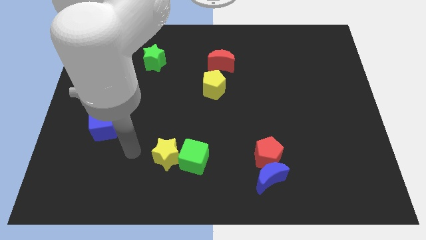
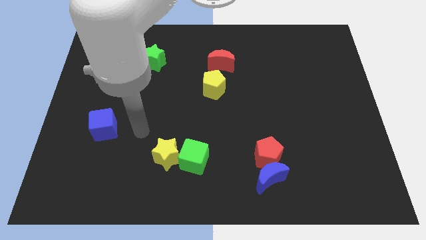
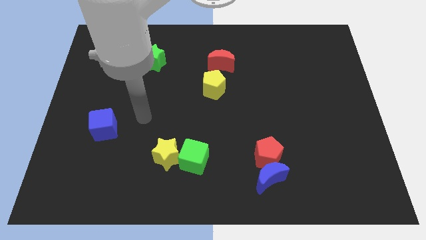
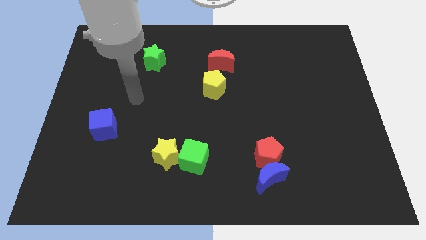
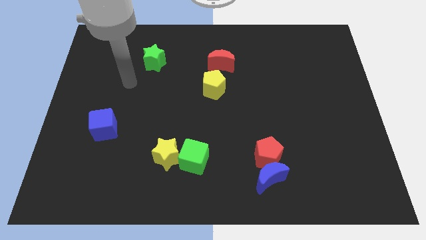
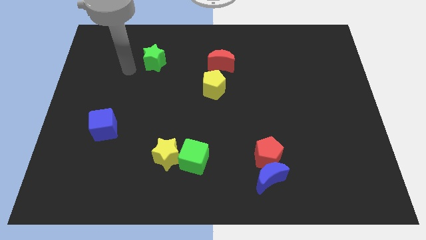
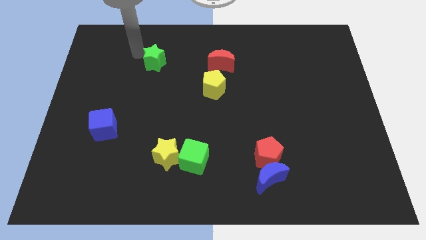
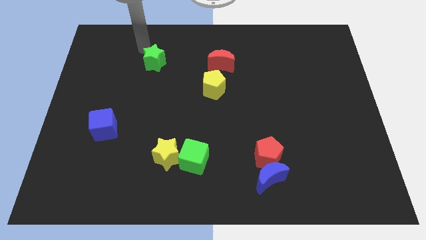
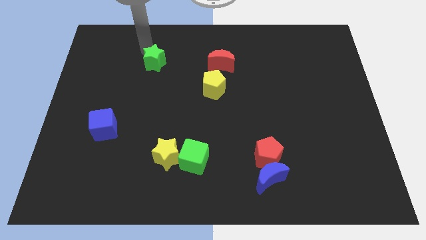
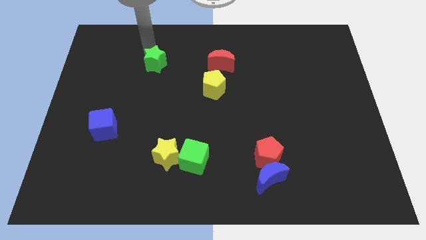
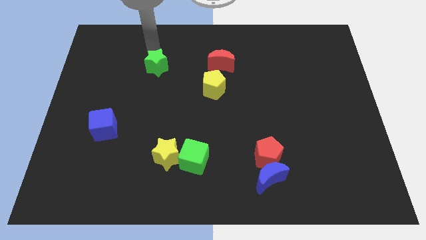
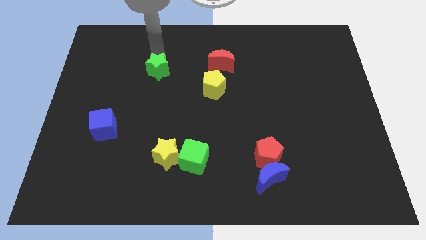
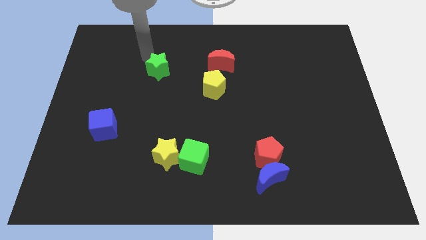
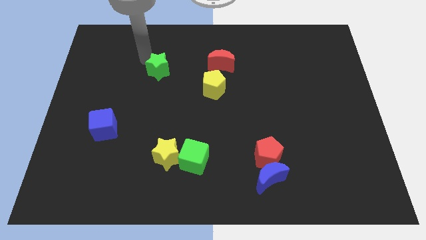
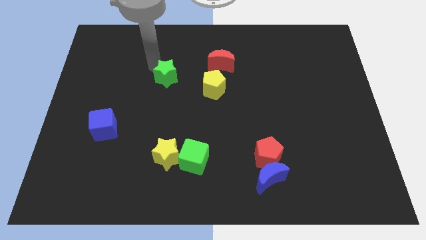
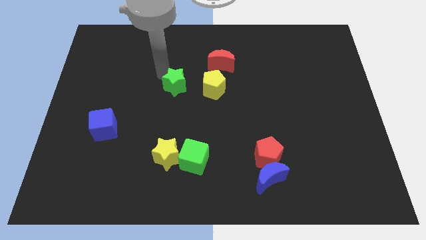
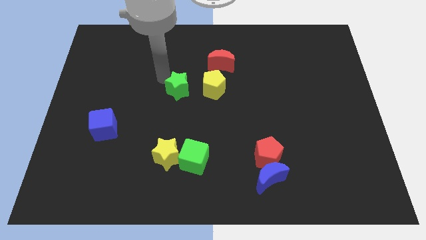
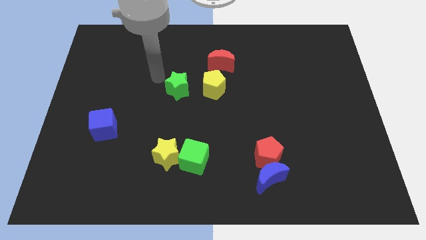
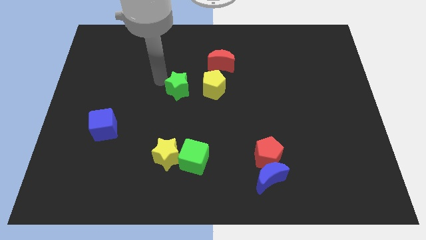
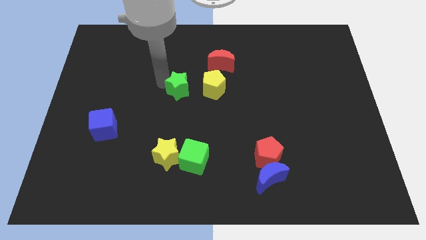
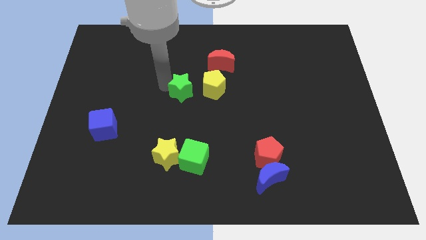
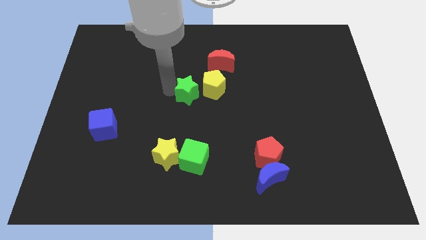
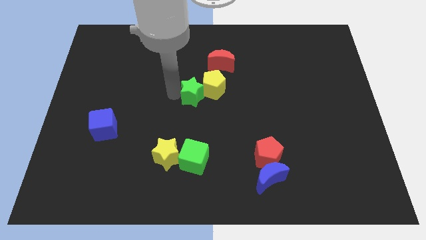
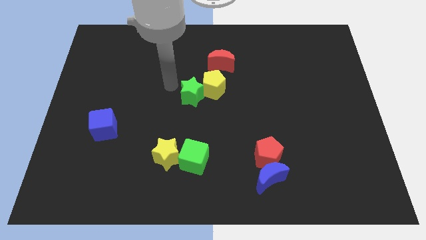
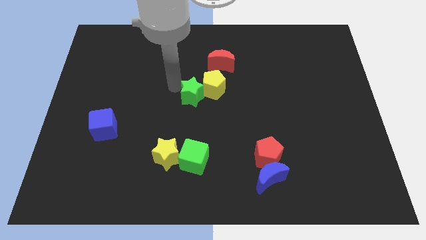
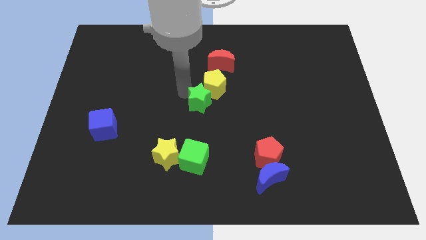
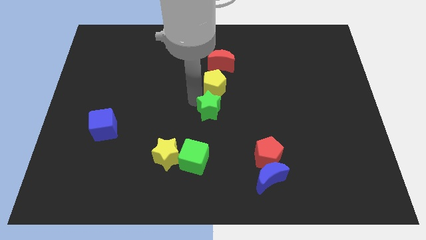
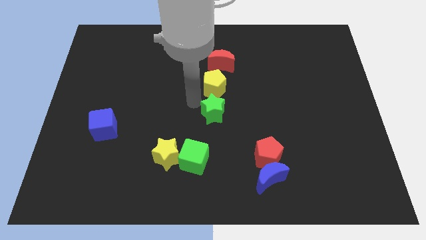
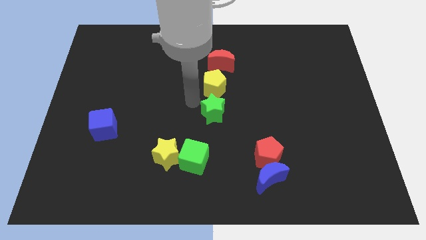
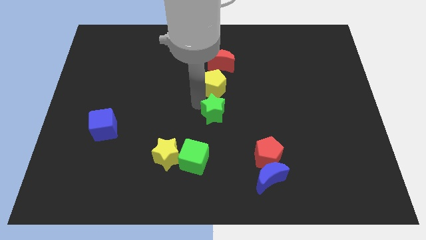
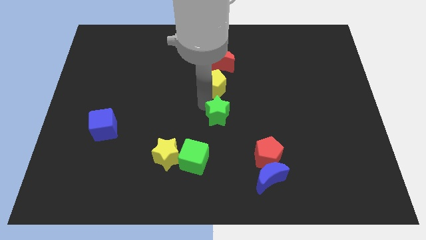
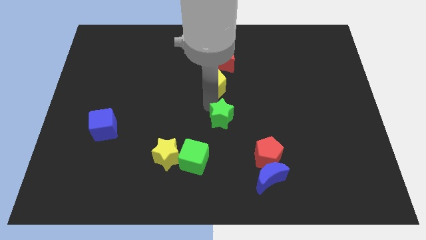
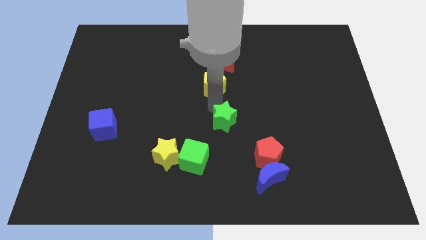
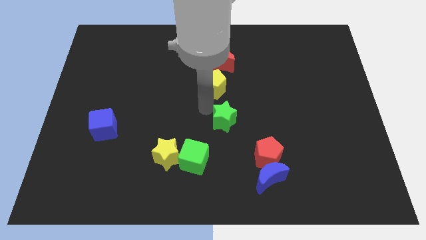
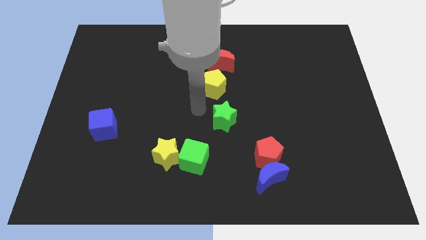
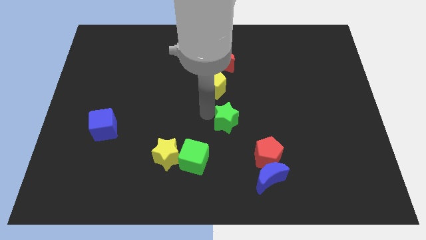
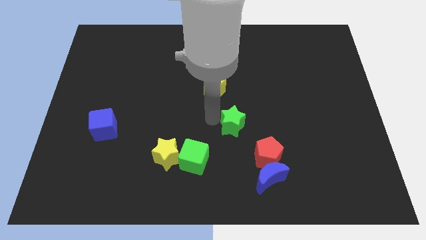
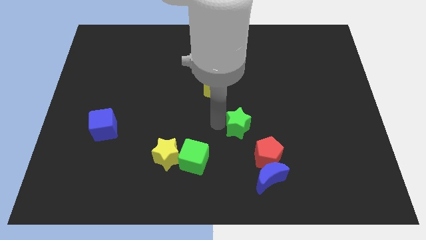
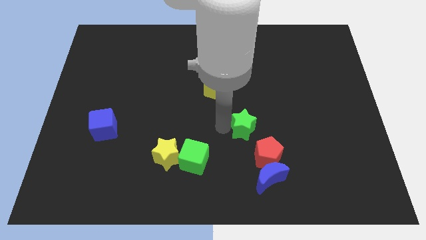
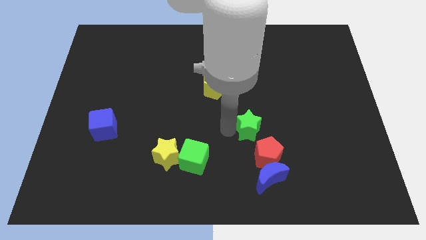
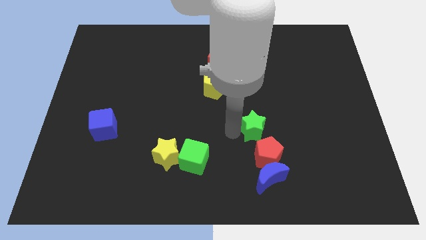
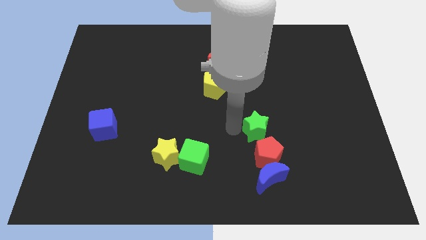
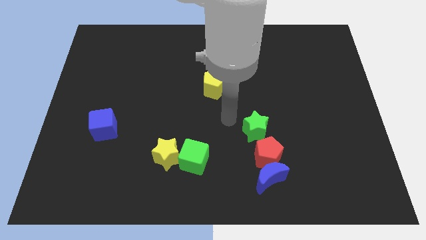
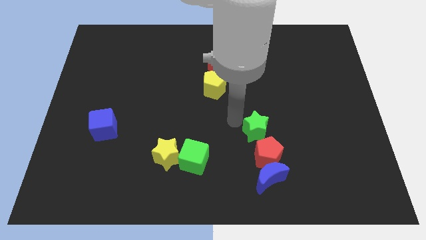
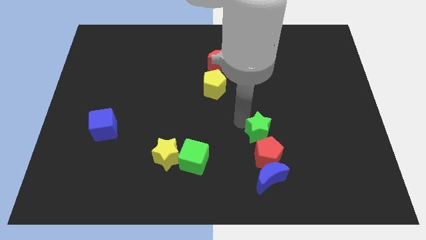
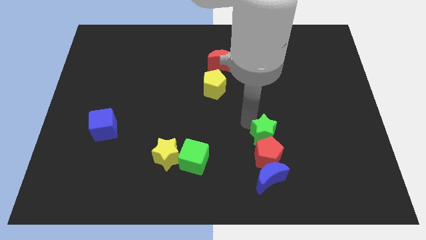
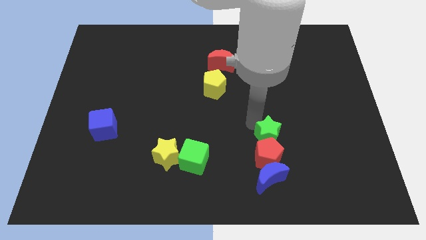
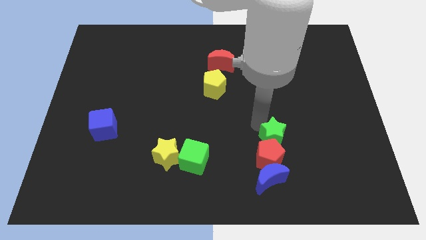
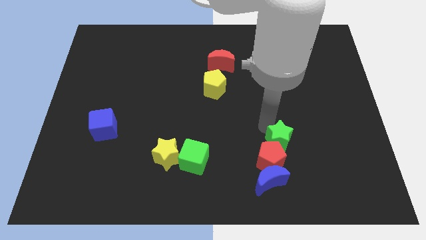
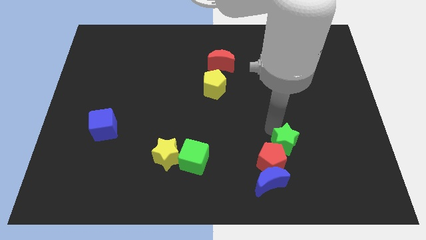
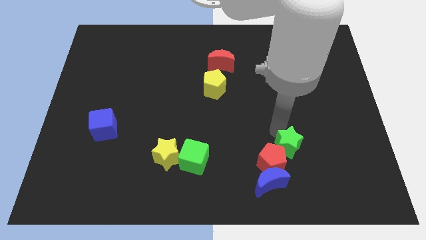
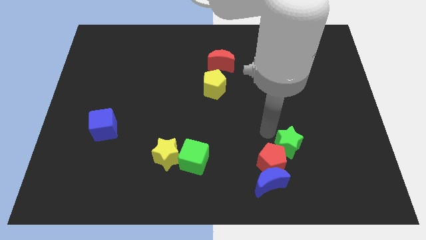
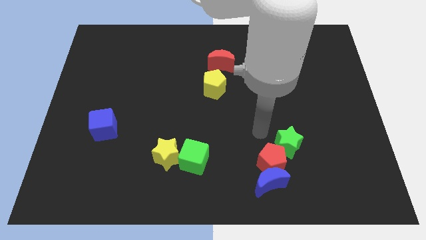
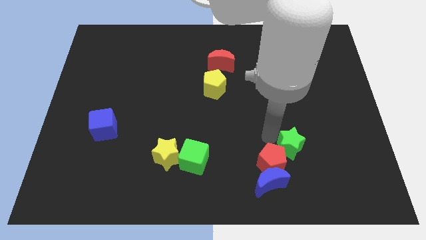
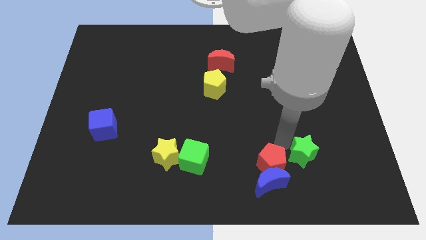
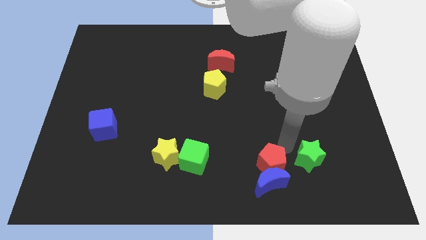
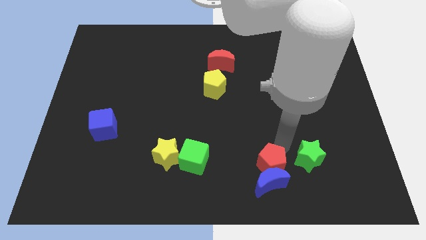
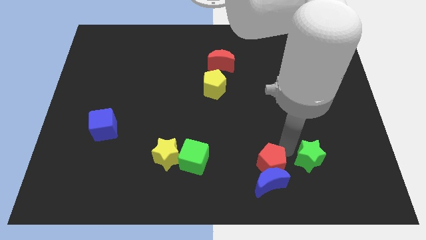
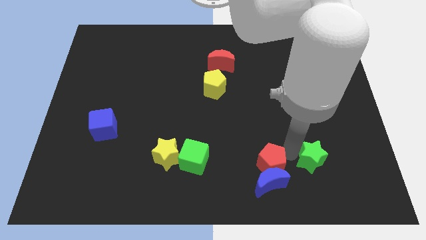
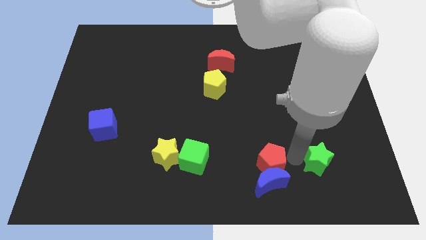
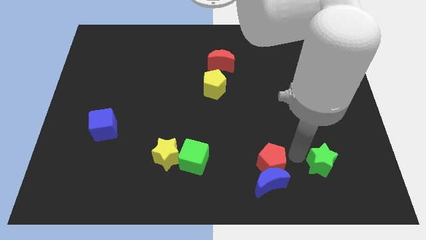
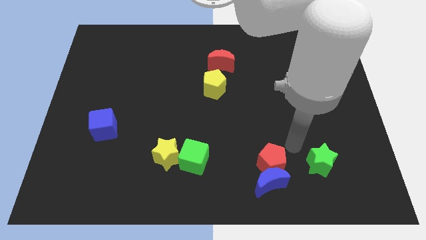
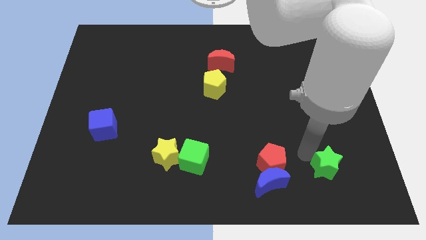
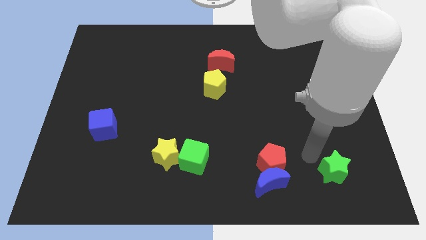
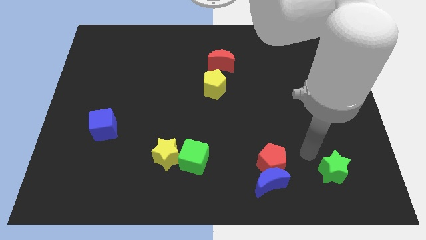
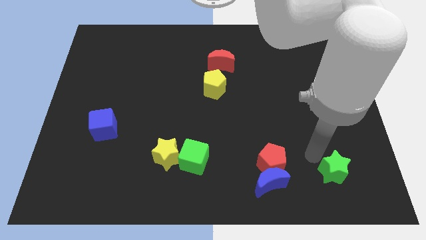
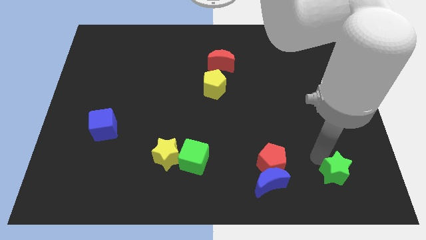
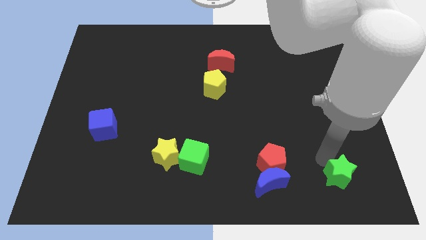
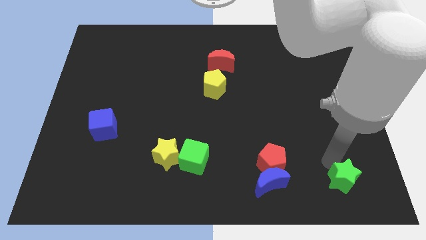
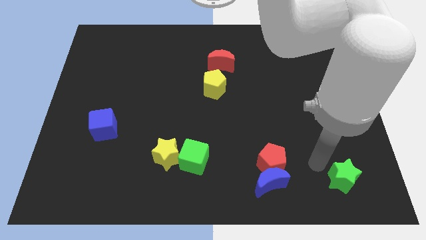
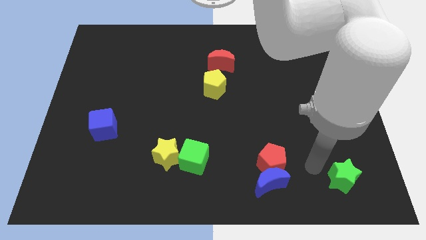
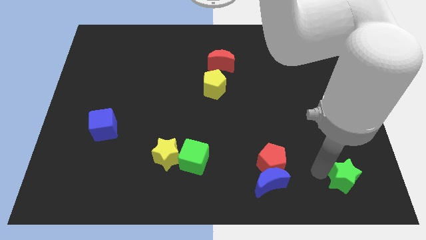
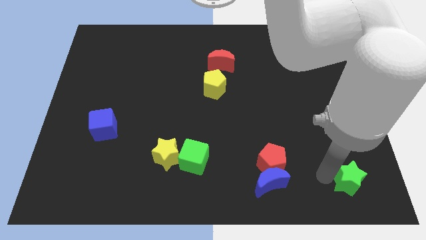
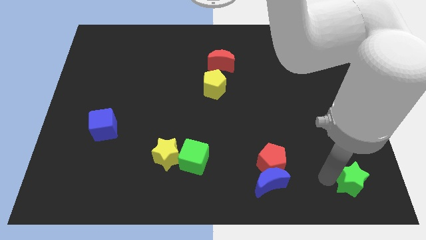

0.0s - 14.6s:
slide the green star to the bottom right
